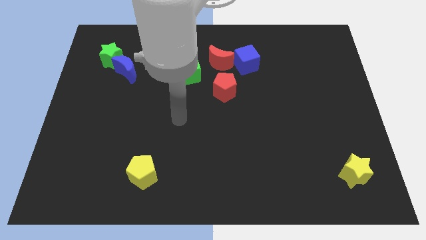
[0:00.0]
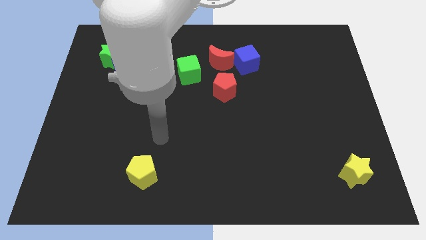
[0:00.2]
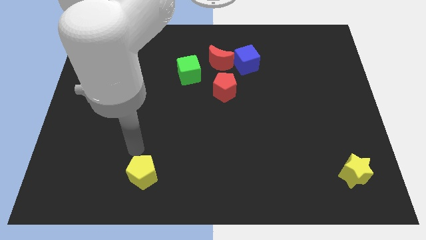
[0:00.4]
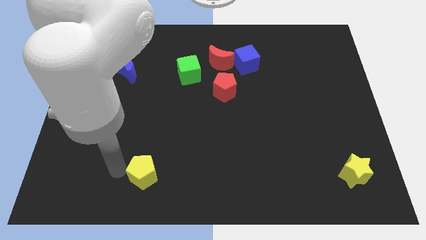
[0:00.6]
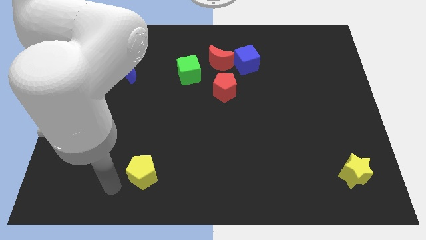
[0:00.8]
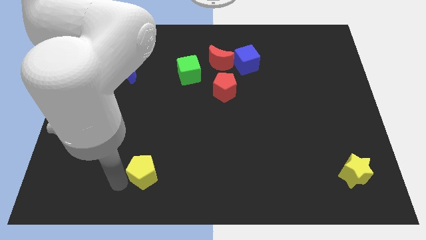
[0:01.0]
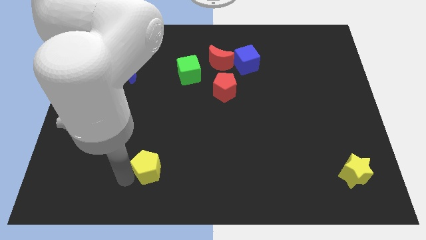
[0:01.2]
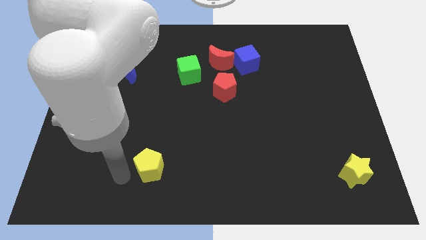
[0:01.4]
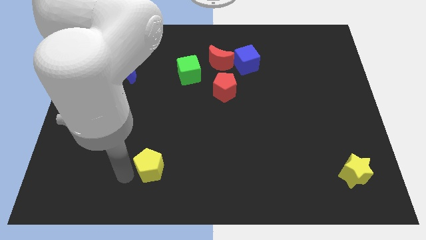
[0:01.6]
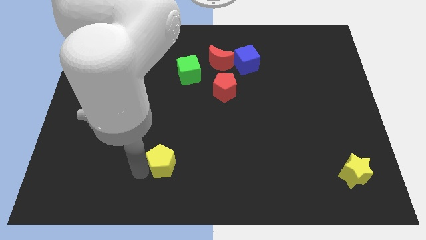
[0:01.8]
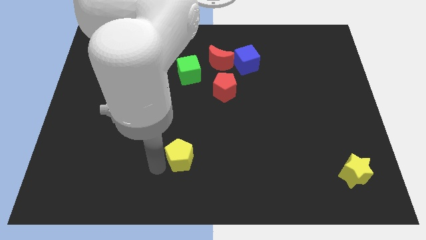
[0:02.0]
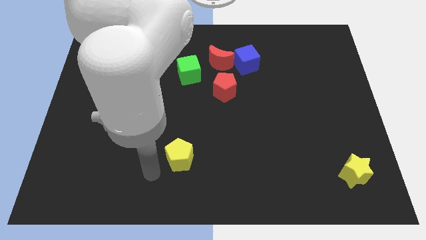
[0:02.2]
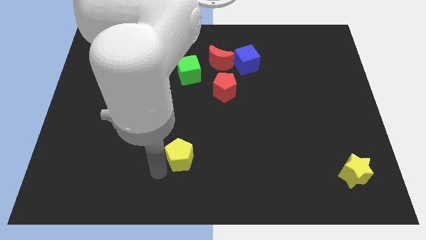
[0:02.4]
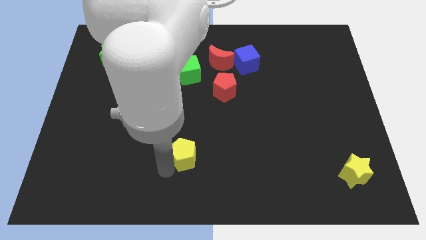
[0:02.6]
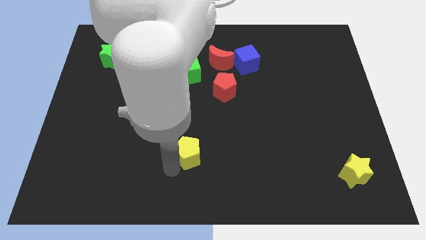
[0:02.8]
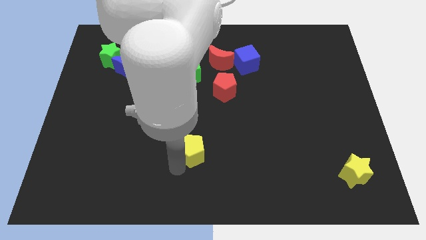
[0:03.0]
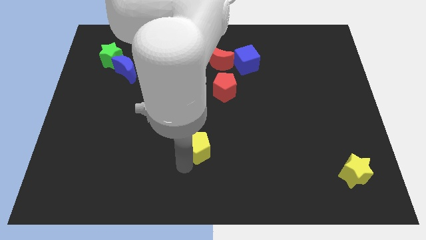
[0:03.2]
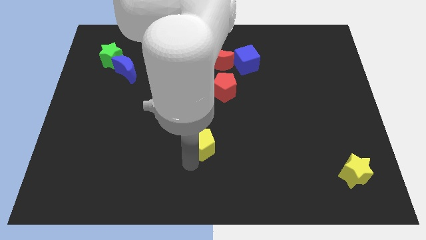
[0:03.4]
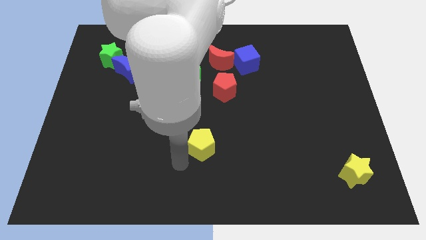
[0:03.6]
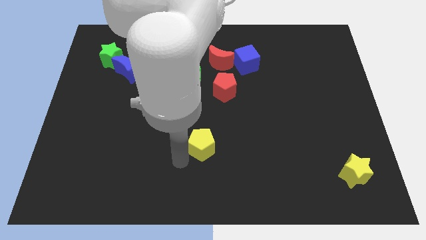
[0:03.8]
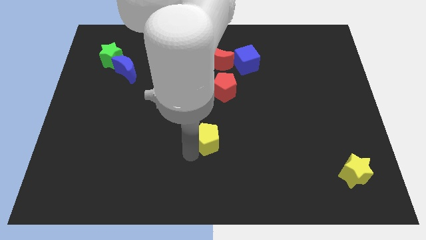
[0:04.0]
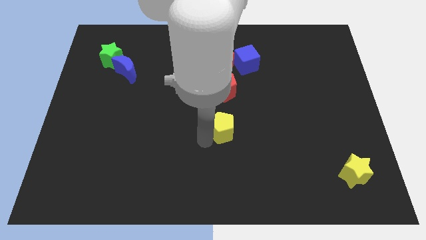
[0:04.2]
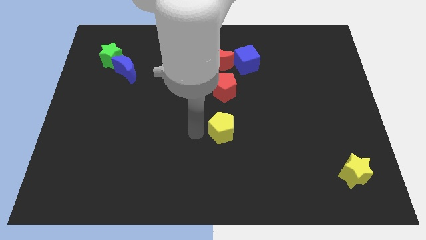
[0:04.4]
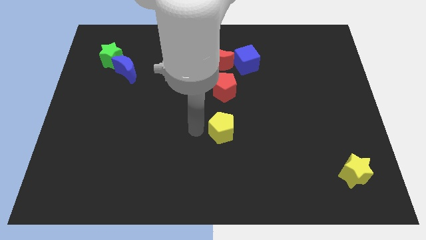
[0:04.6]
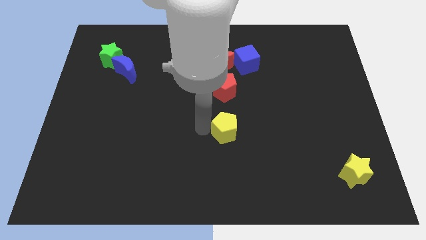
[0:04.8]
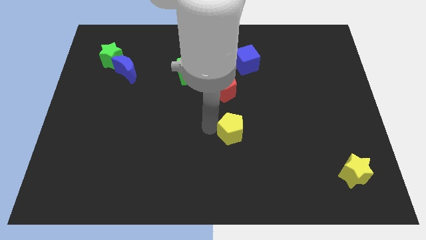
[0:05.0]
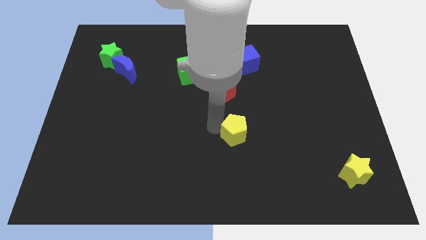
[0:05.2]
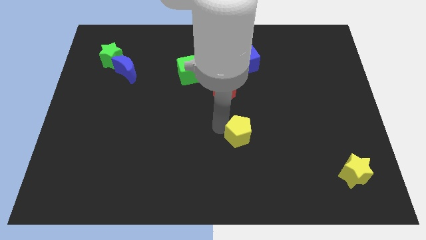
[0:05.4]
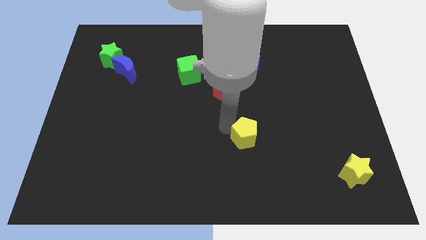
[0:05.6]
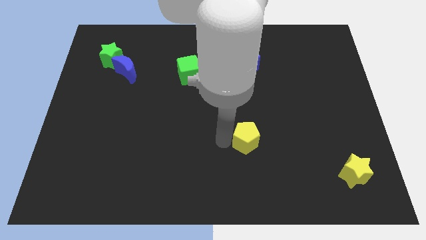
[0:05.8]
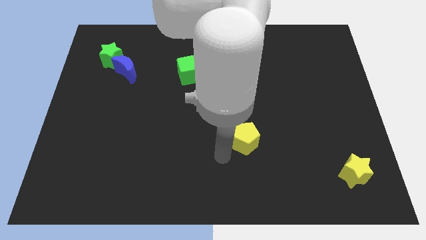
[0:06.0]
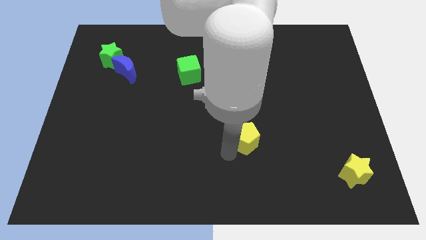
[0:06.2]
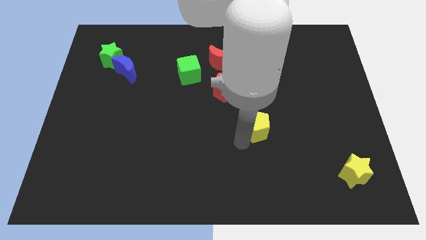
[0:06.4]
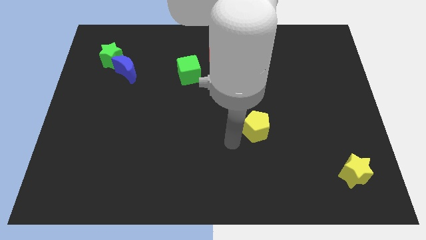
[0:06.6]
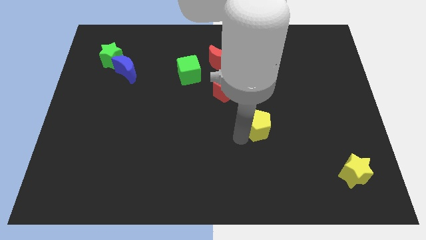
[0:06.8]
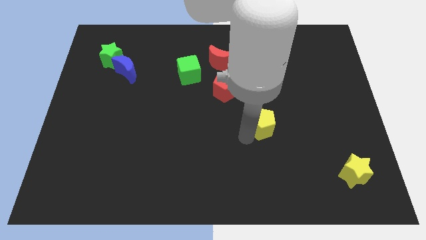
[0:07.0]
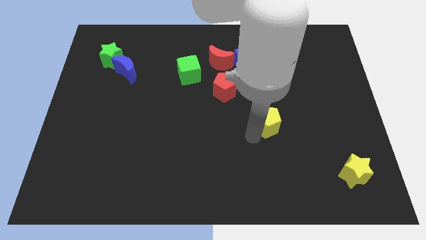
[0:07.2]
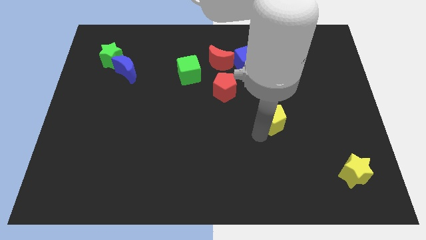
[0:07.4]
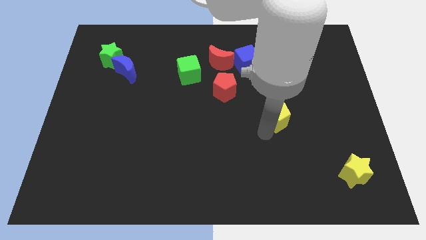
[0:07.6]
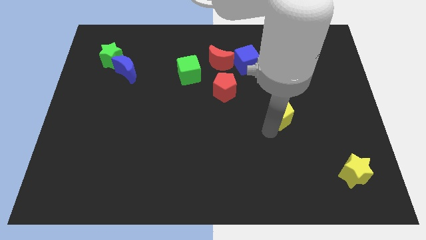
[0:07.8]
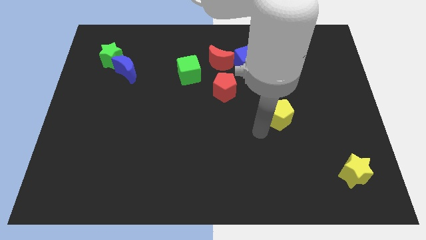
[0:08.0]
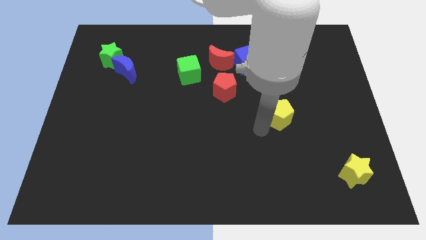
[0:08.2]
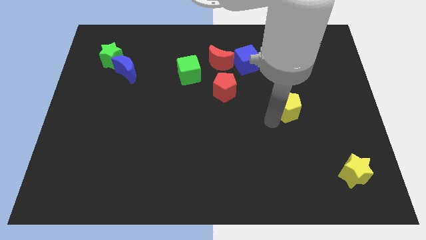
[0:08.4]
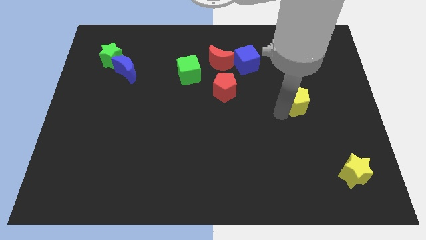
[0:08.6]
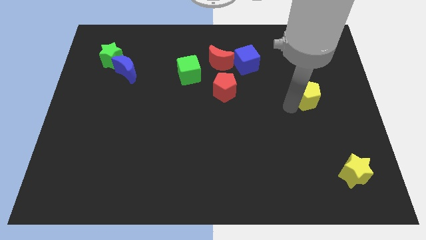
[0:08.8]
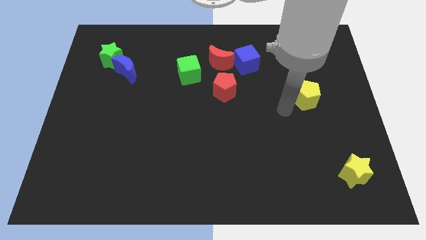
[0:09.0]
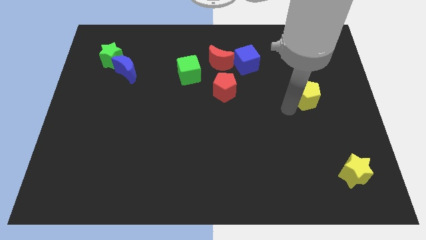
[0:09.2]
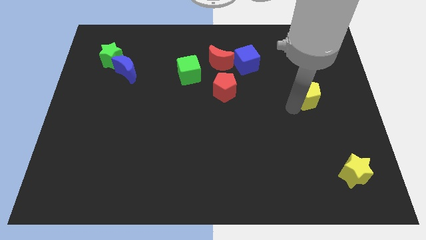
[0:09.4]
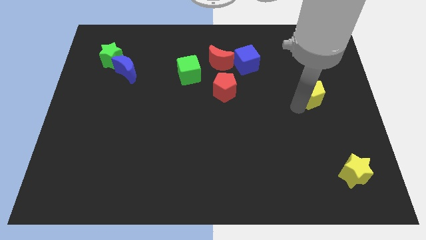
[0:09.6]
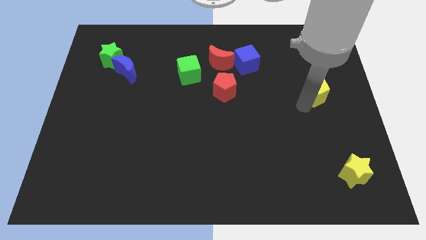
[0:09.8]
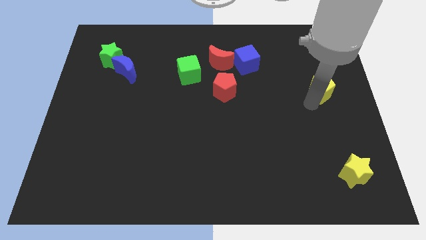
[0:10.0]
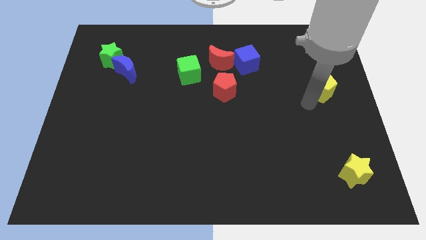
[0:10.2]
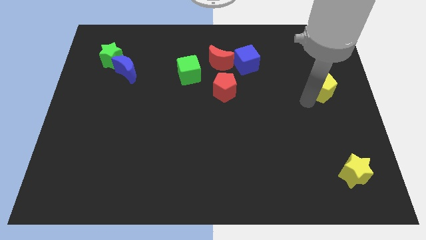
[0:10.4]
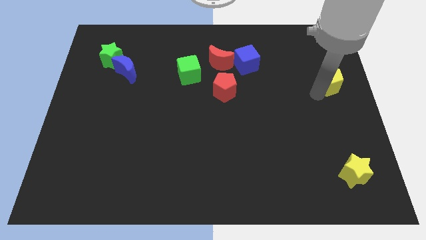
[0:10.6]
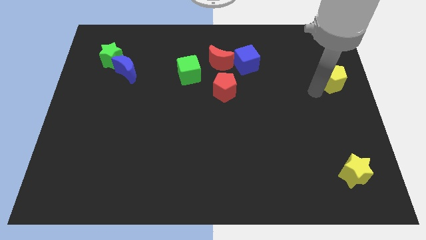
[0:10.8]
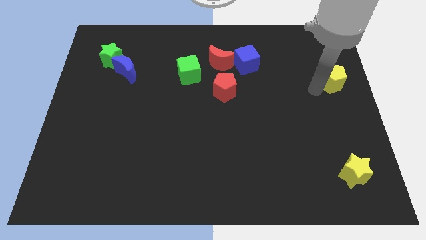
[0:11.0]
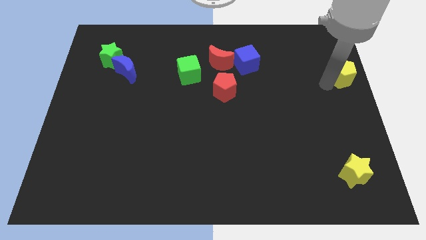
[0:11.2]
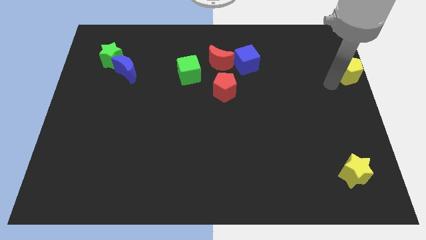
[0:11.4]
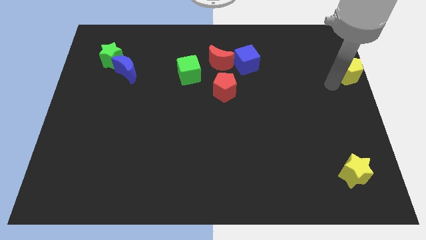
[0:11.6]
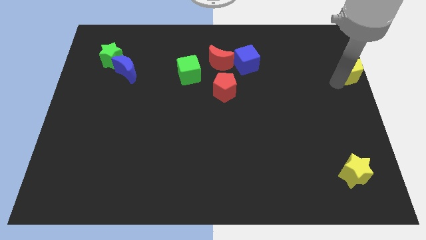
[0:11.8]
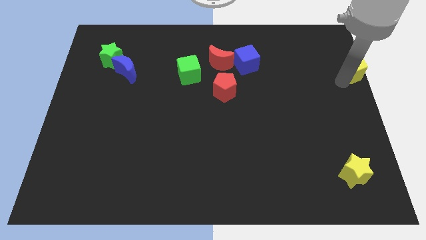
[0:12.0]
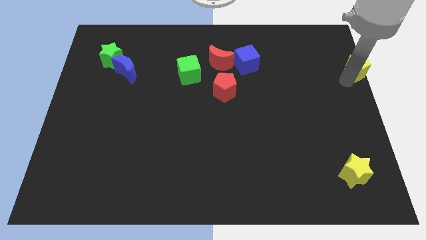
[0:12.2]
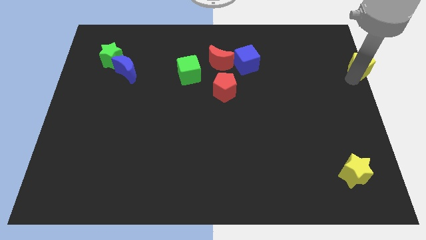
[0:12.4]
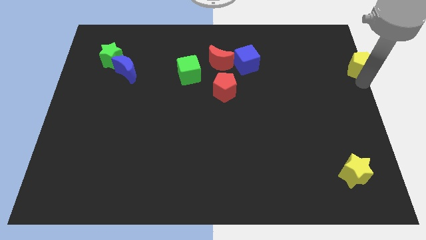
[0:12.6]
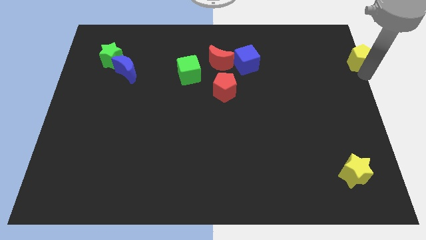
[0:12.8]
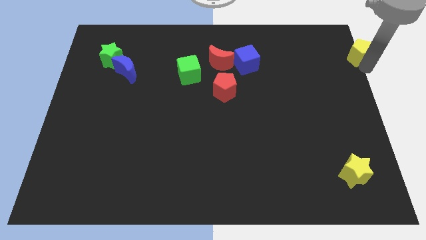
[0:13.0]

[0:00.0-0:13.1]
push the yellow pentagon to the top right
